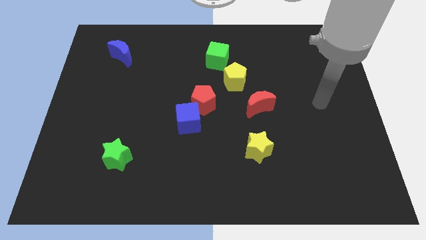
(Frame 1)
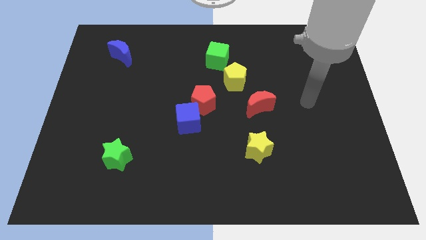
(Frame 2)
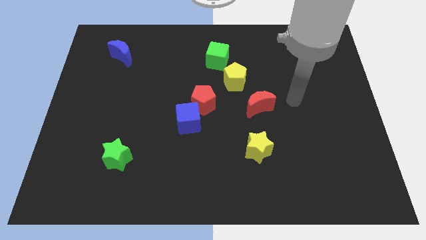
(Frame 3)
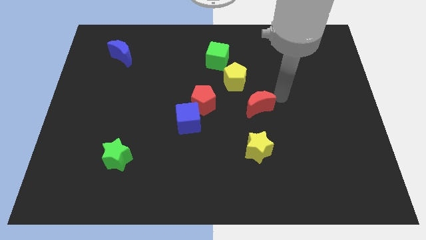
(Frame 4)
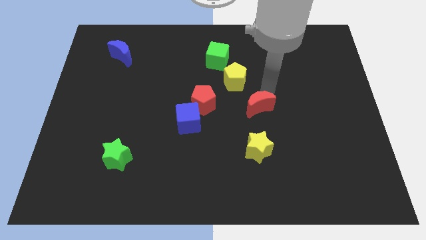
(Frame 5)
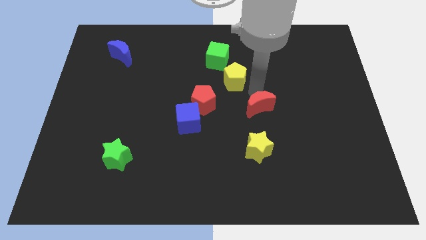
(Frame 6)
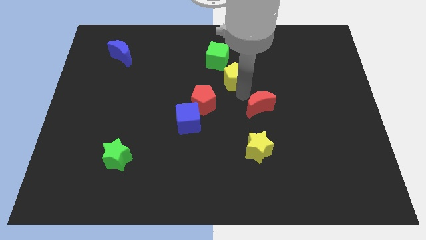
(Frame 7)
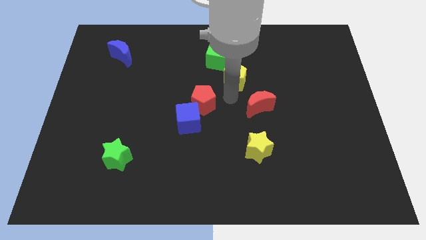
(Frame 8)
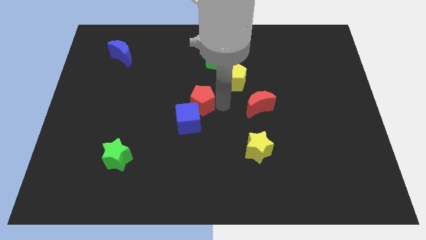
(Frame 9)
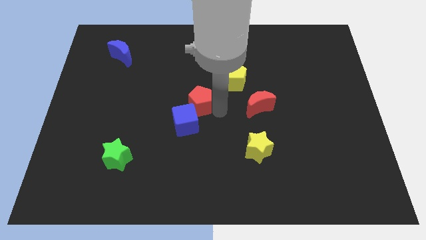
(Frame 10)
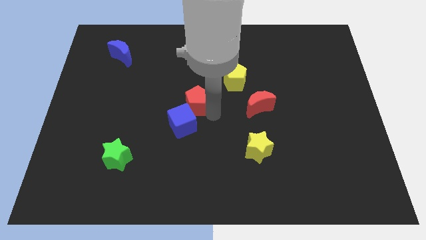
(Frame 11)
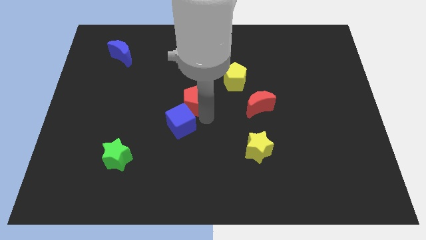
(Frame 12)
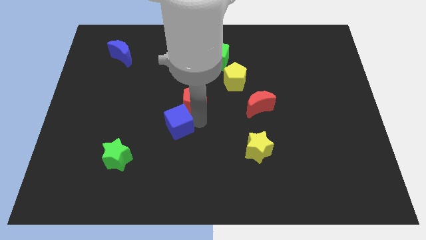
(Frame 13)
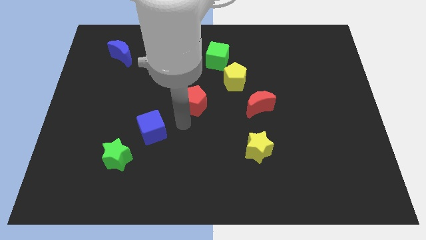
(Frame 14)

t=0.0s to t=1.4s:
move the red pentagon away from the blue cube

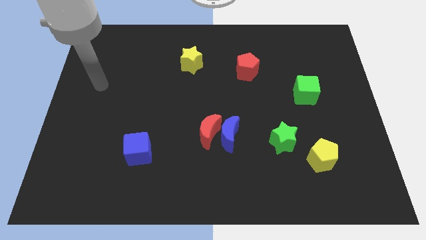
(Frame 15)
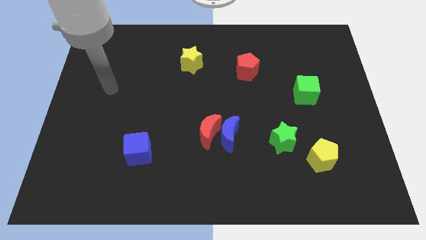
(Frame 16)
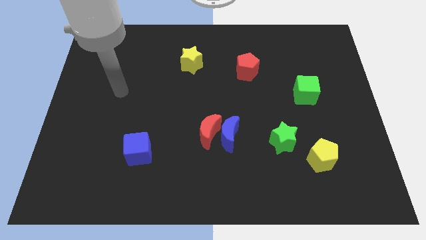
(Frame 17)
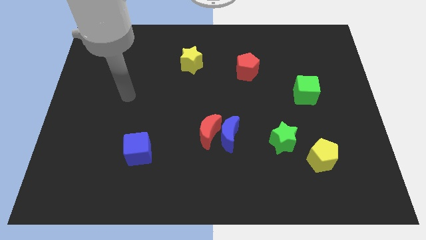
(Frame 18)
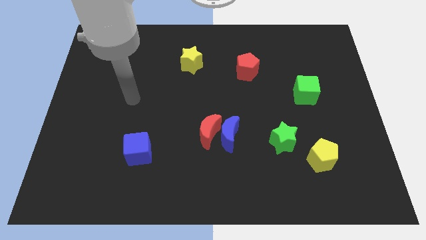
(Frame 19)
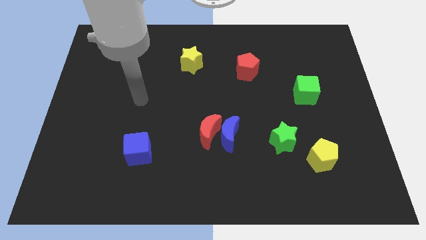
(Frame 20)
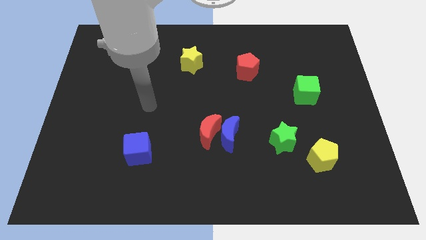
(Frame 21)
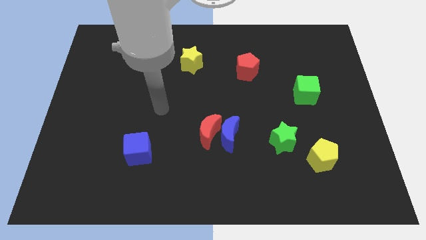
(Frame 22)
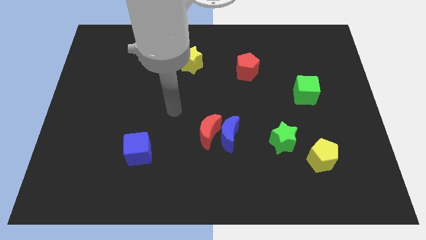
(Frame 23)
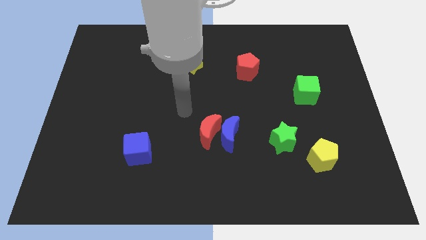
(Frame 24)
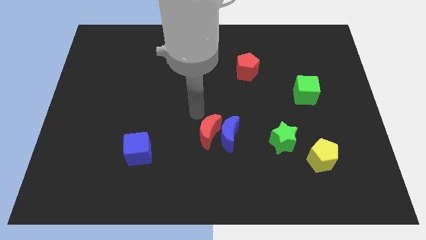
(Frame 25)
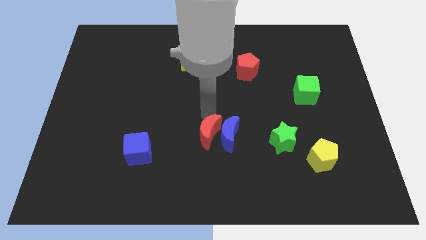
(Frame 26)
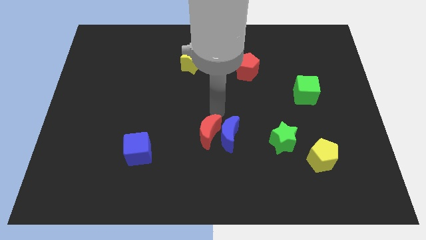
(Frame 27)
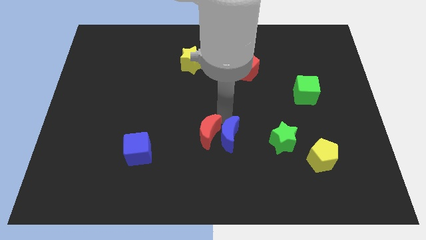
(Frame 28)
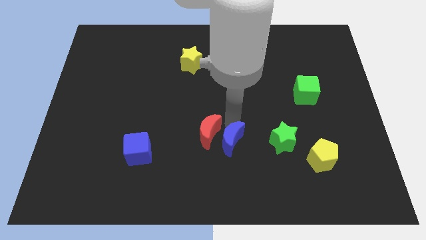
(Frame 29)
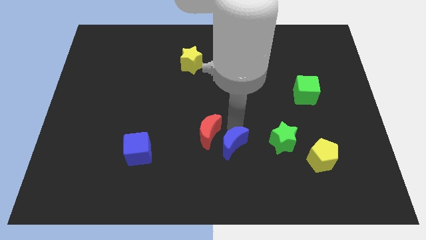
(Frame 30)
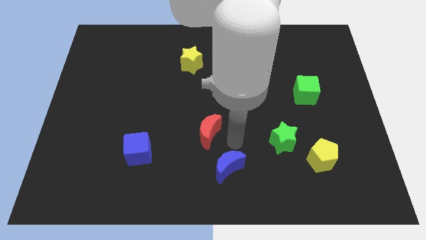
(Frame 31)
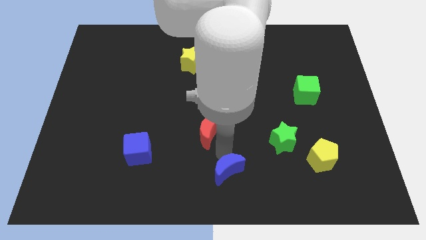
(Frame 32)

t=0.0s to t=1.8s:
pull the red moon apart from the blue moon

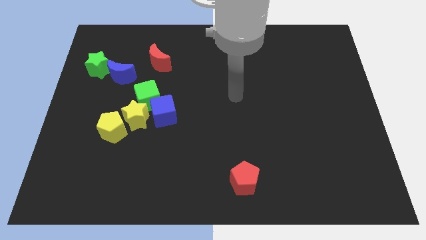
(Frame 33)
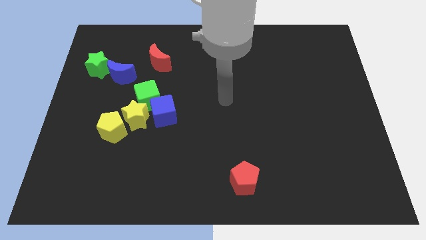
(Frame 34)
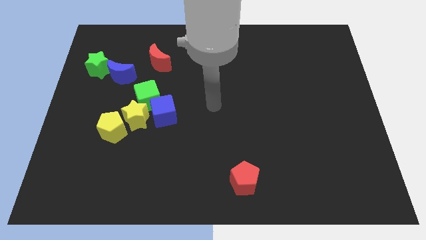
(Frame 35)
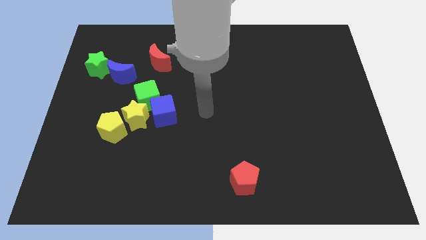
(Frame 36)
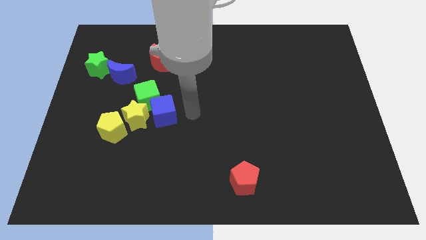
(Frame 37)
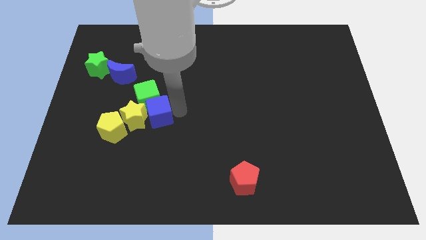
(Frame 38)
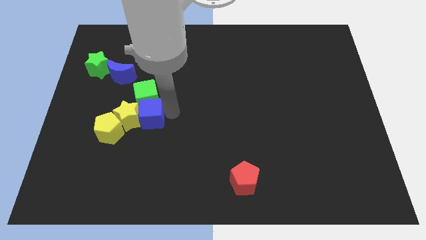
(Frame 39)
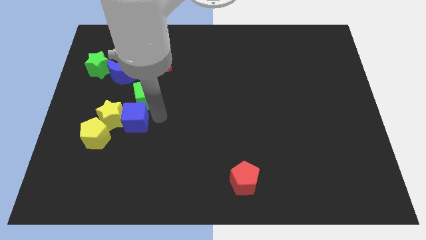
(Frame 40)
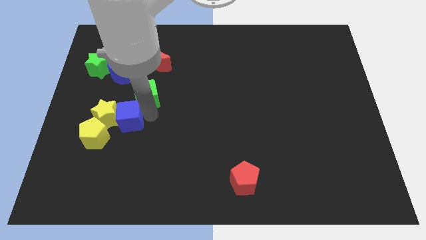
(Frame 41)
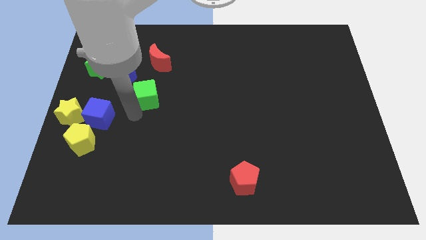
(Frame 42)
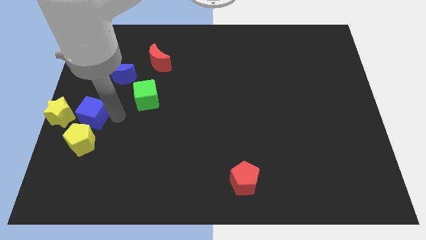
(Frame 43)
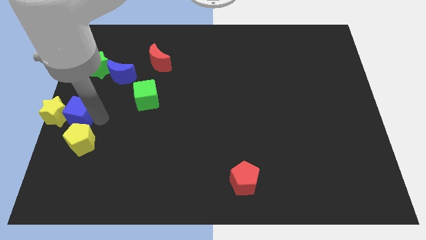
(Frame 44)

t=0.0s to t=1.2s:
move the yellow pentagon away from the yellow star

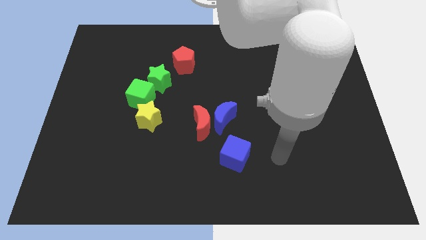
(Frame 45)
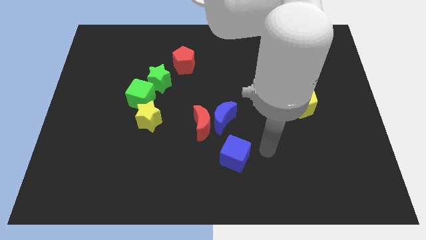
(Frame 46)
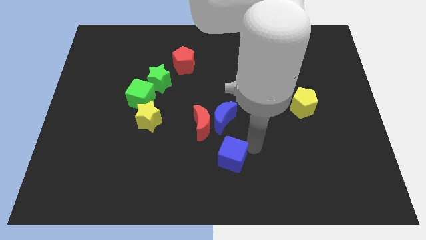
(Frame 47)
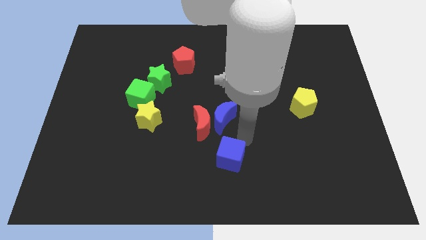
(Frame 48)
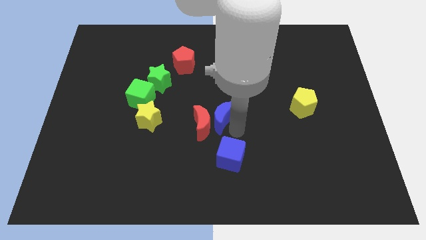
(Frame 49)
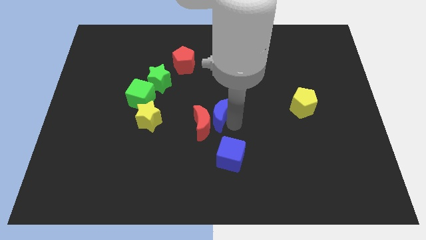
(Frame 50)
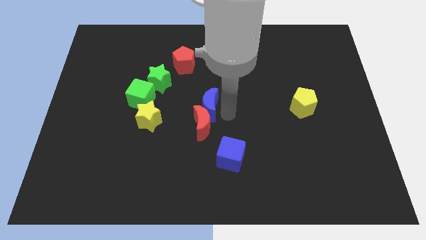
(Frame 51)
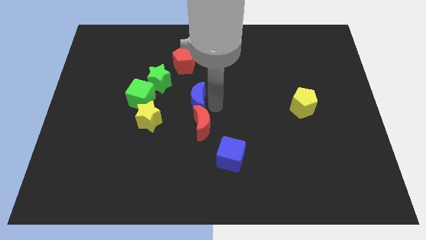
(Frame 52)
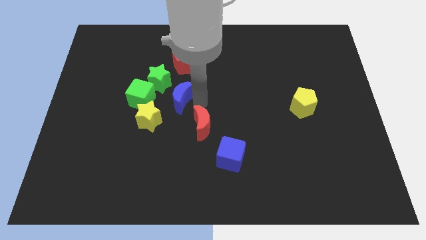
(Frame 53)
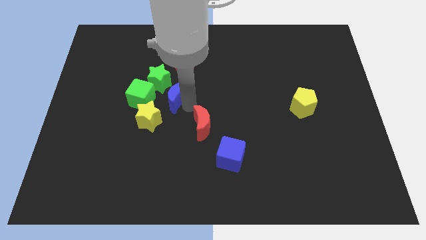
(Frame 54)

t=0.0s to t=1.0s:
separate the red moon from the blue moon

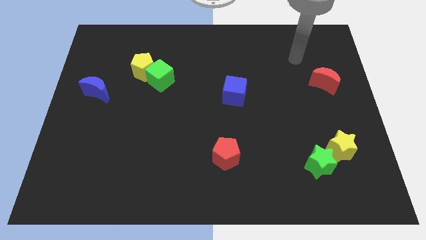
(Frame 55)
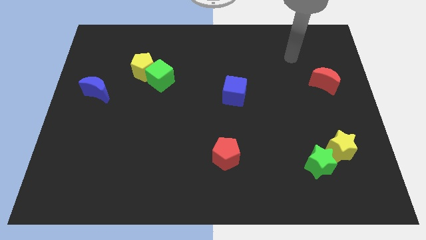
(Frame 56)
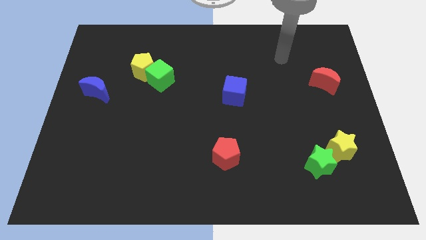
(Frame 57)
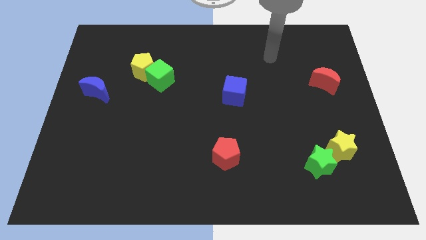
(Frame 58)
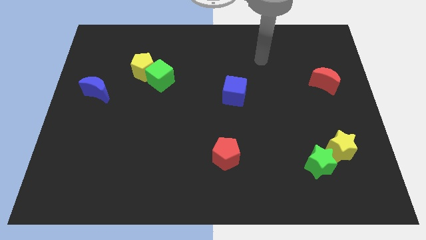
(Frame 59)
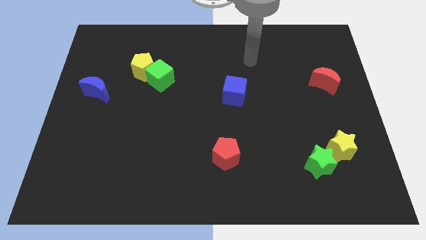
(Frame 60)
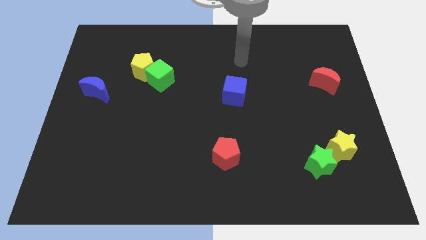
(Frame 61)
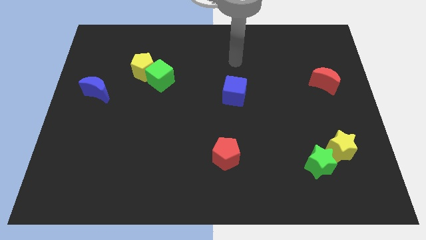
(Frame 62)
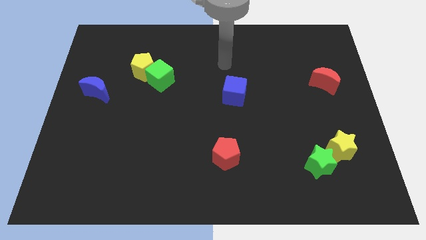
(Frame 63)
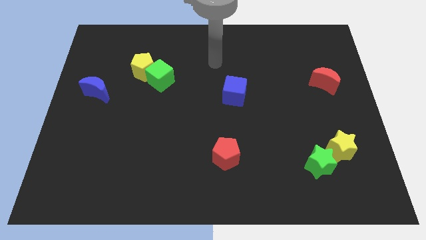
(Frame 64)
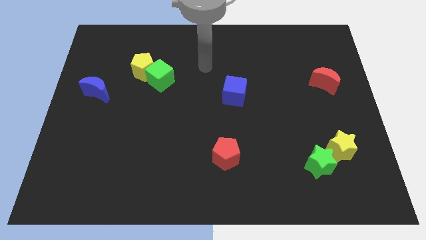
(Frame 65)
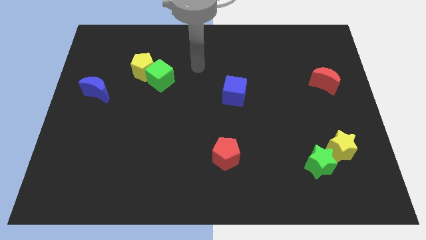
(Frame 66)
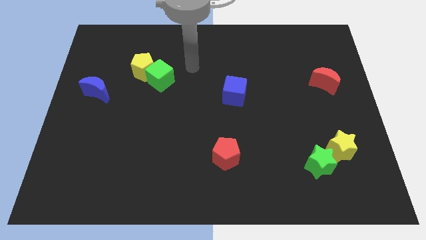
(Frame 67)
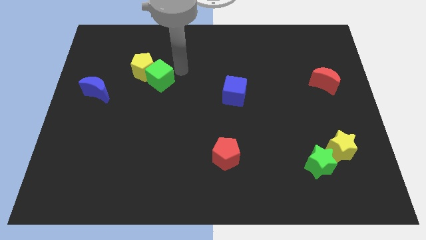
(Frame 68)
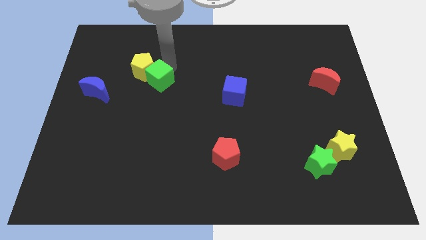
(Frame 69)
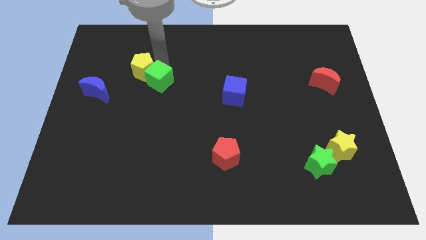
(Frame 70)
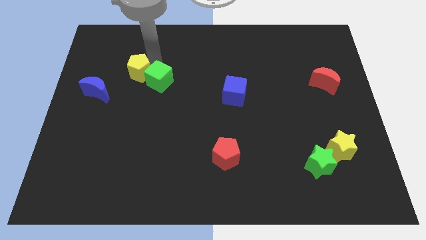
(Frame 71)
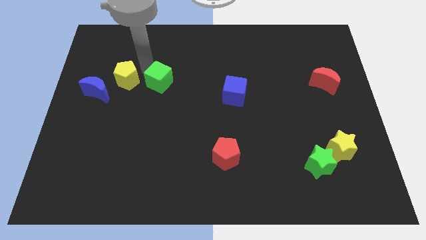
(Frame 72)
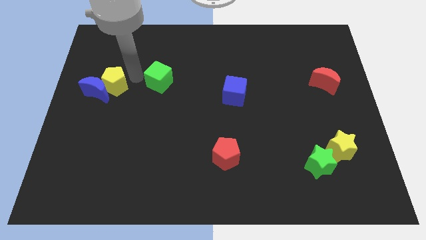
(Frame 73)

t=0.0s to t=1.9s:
pull the green cube apart from the yellow pentagon

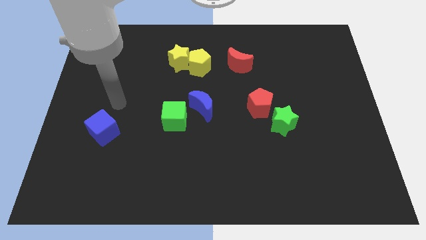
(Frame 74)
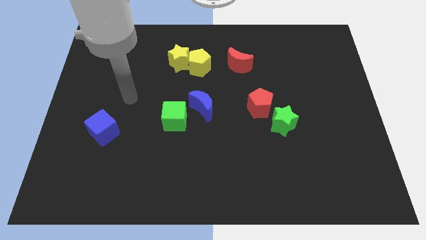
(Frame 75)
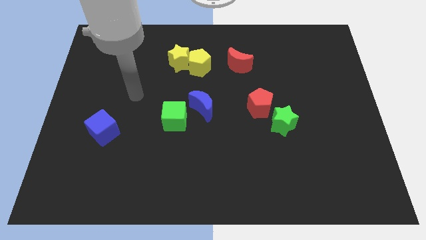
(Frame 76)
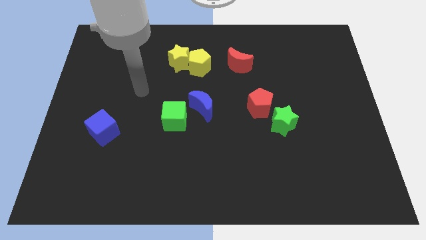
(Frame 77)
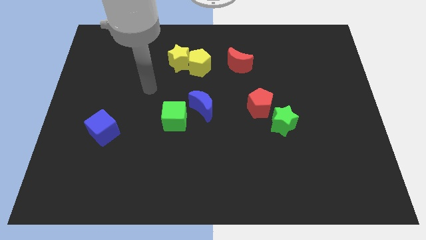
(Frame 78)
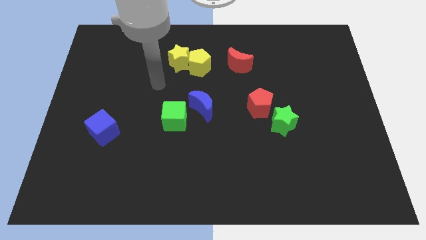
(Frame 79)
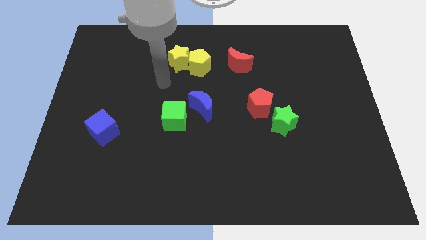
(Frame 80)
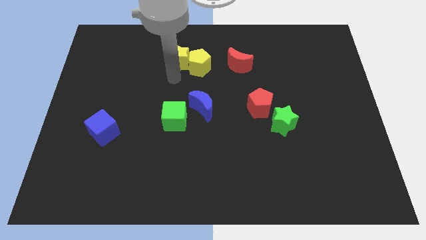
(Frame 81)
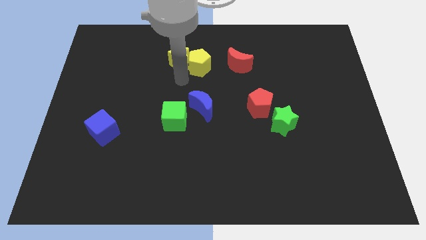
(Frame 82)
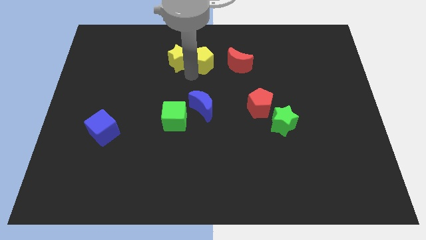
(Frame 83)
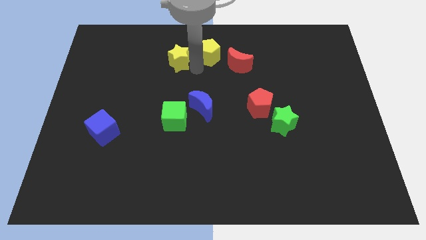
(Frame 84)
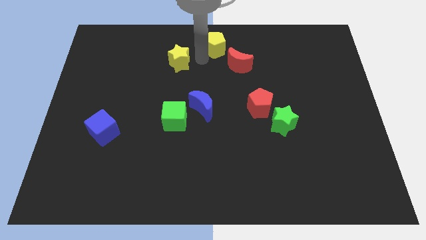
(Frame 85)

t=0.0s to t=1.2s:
move the yellow star away from the yellow pentagon

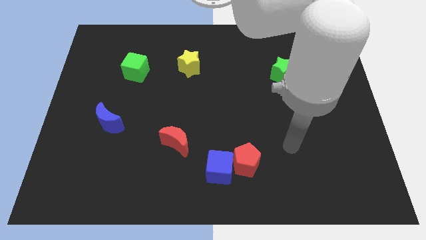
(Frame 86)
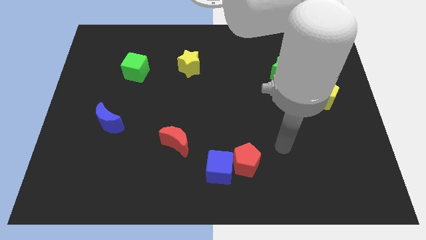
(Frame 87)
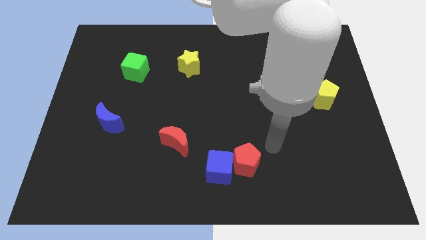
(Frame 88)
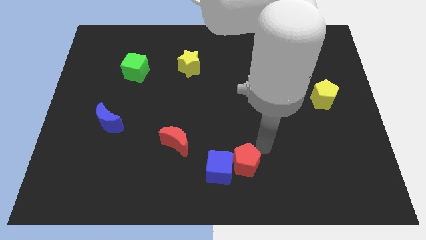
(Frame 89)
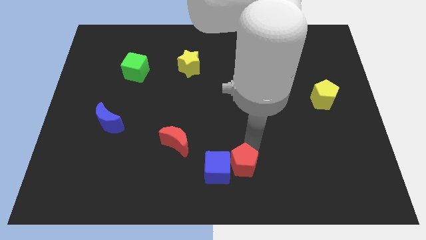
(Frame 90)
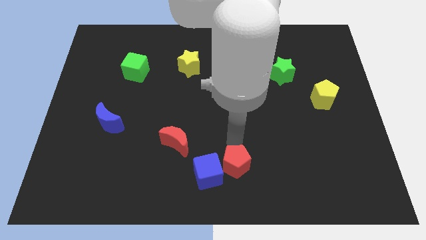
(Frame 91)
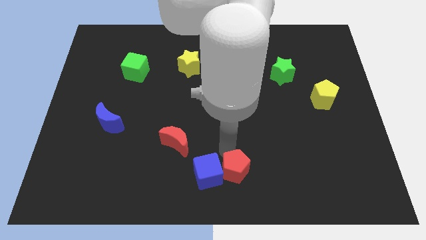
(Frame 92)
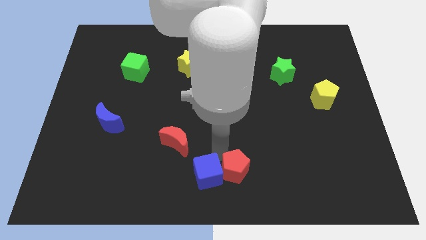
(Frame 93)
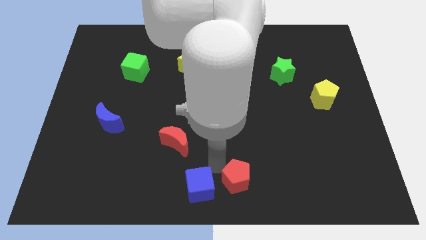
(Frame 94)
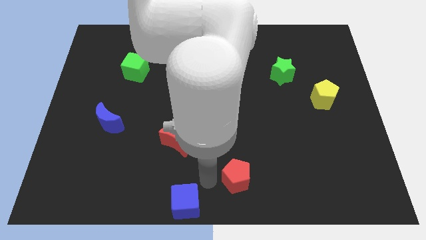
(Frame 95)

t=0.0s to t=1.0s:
separate the red pentagon from the blue cube

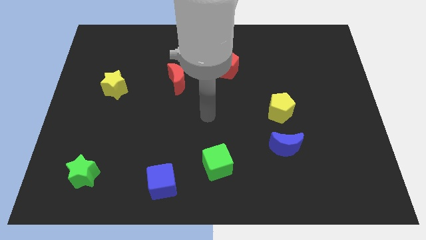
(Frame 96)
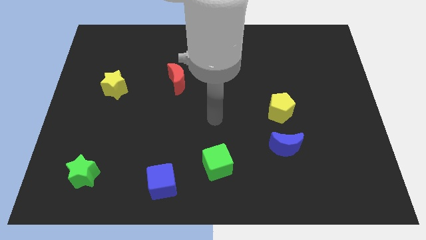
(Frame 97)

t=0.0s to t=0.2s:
pull the blue moon apart from the yellow pentagon
